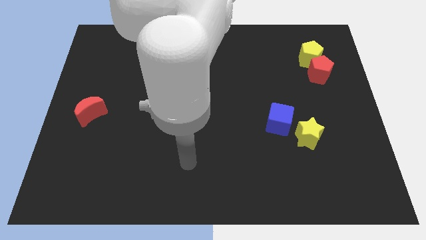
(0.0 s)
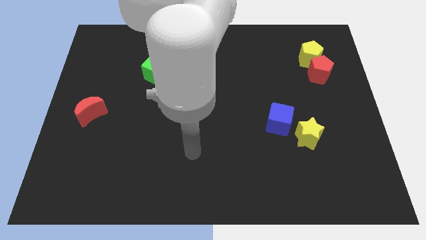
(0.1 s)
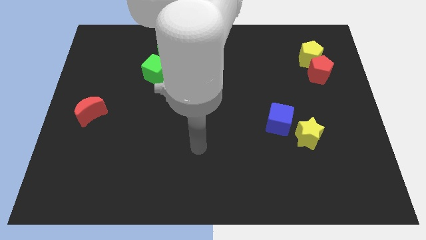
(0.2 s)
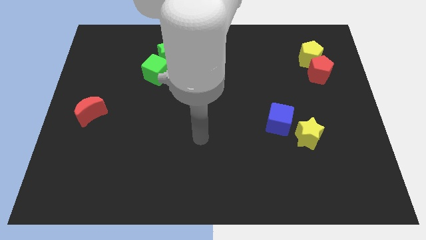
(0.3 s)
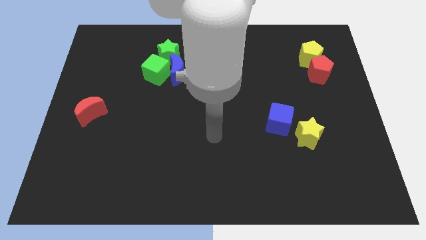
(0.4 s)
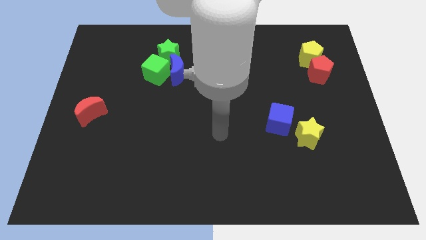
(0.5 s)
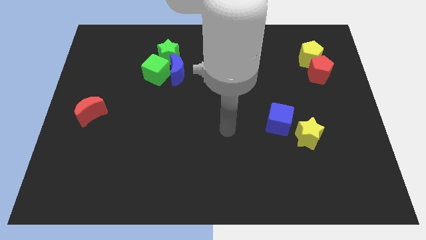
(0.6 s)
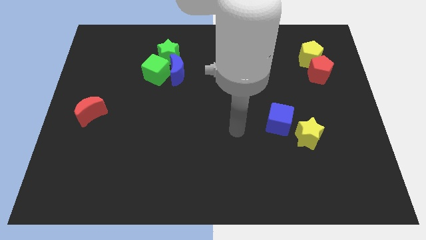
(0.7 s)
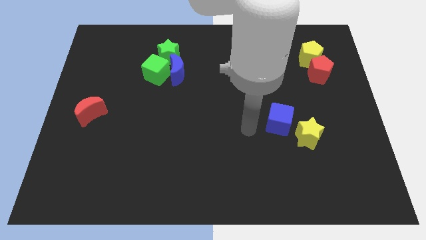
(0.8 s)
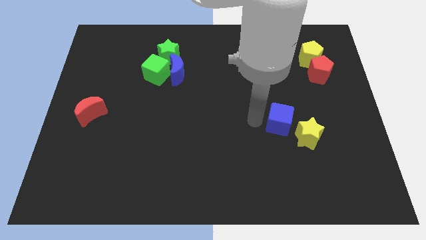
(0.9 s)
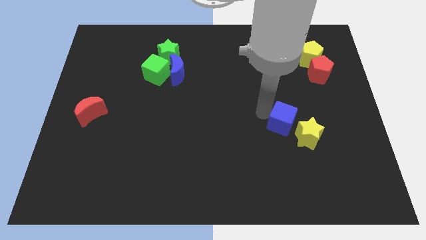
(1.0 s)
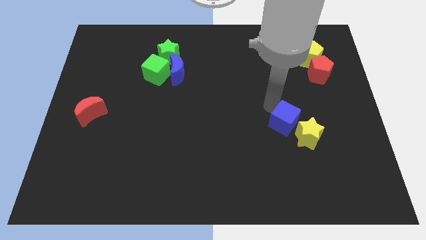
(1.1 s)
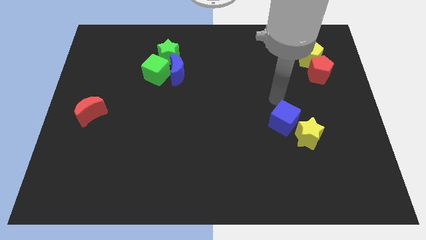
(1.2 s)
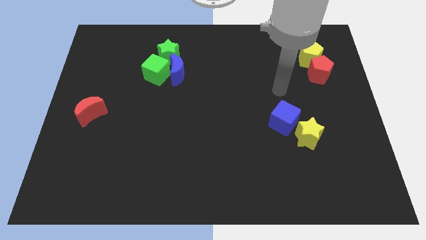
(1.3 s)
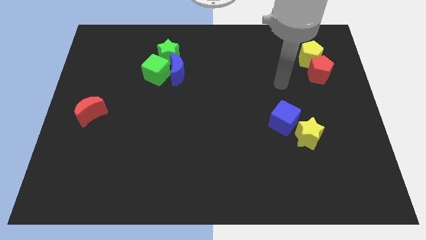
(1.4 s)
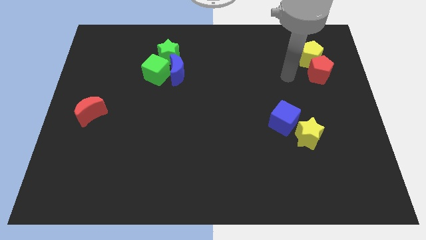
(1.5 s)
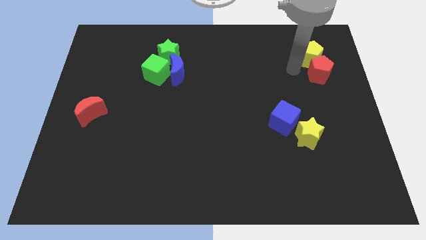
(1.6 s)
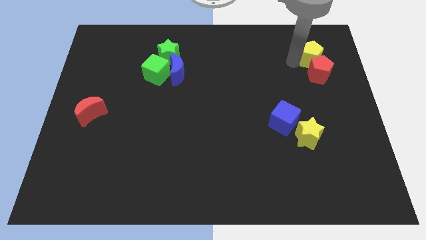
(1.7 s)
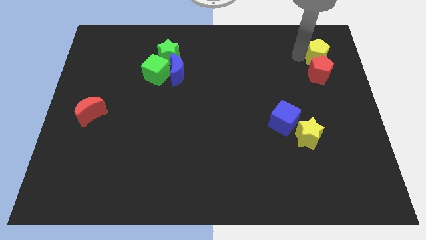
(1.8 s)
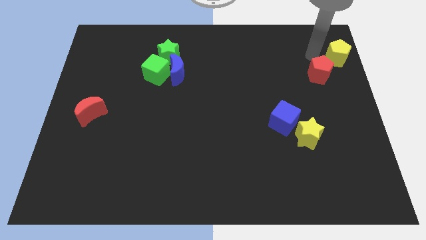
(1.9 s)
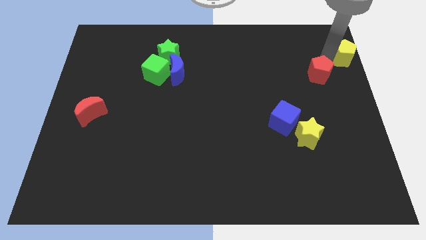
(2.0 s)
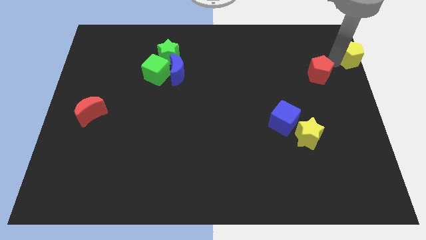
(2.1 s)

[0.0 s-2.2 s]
move the red pentagon away from the yellow pentagon

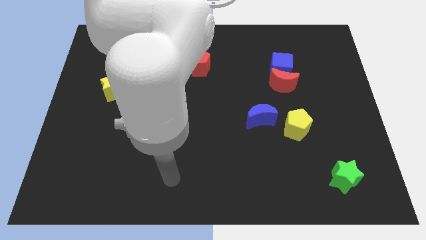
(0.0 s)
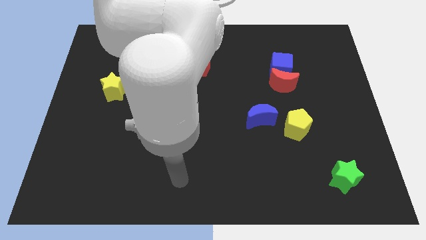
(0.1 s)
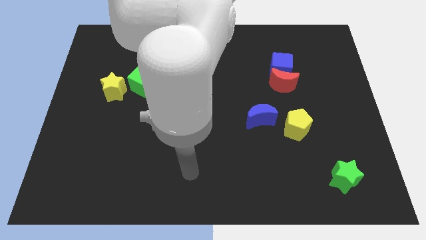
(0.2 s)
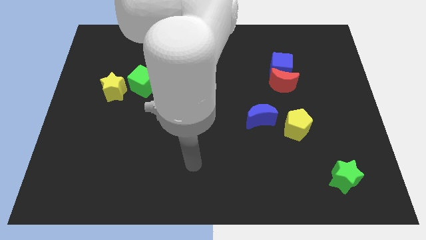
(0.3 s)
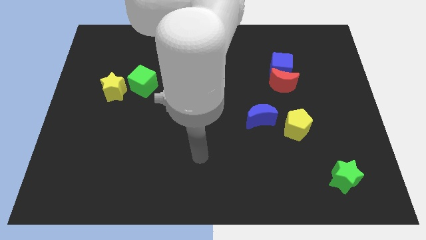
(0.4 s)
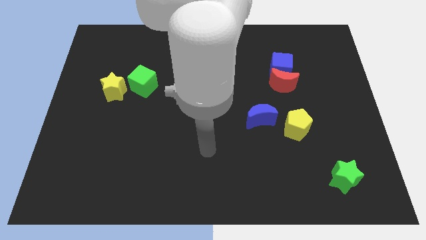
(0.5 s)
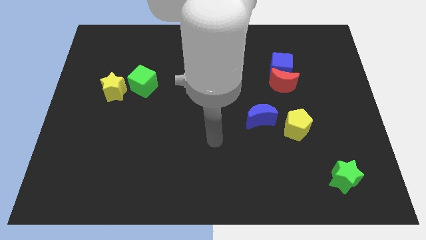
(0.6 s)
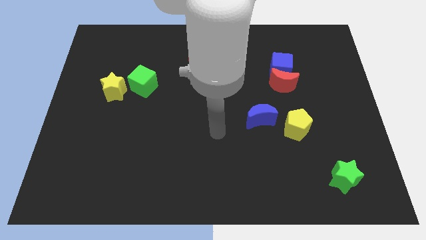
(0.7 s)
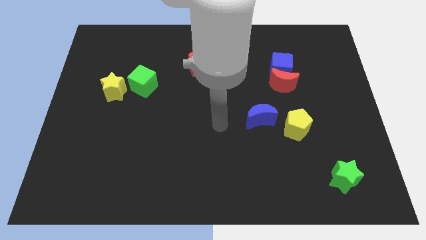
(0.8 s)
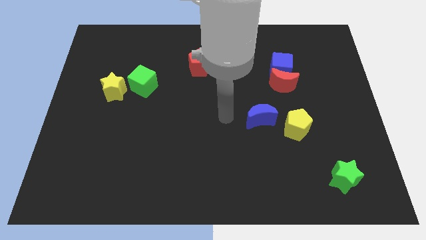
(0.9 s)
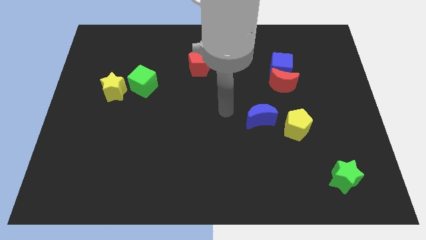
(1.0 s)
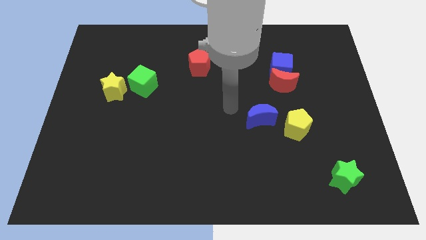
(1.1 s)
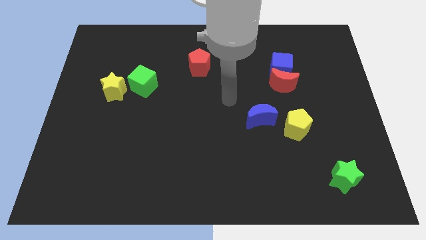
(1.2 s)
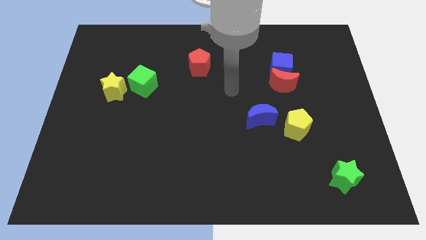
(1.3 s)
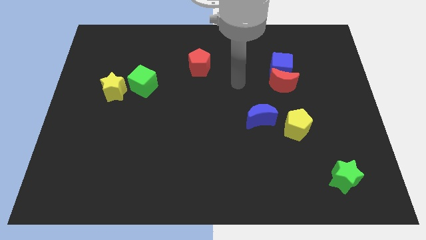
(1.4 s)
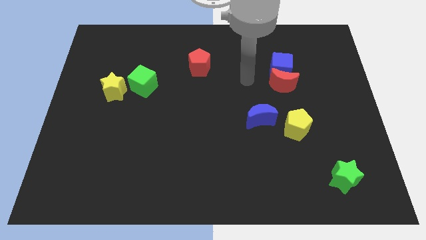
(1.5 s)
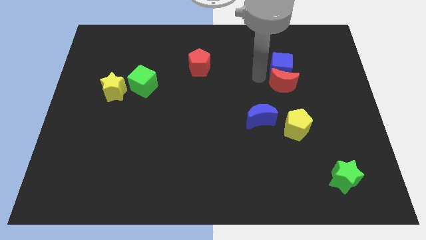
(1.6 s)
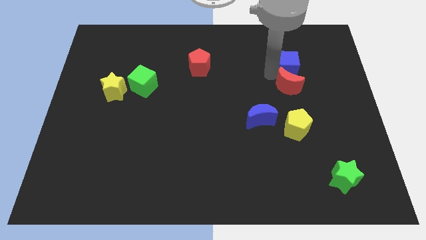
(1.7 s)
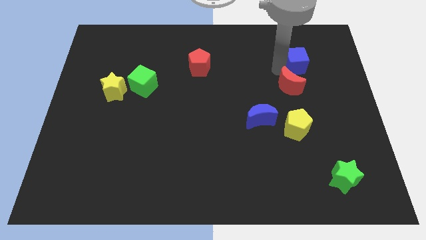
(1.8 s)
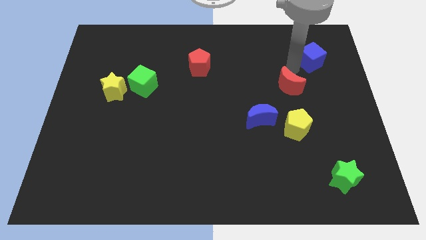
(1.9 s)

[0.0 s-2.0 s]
pull the red moon apart from the blue cube

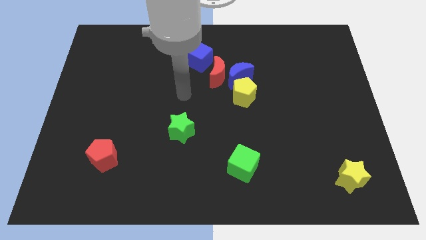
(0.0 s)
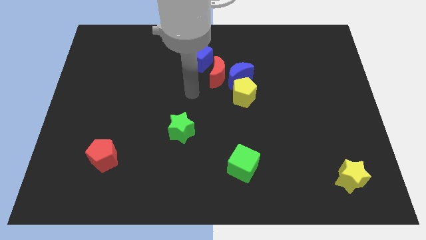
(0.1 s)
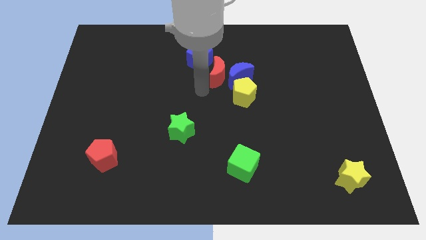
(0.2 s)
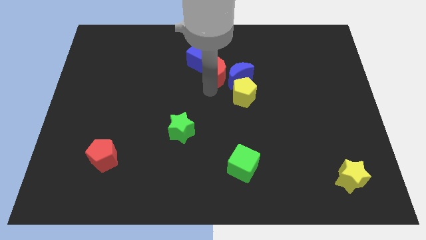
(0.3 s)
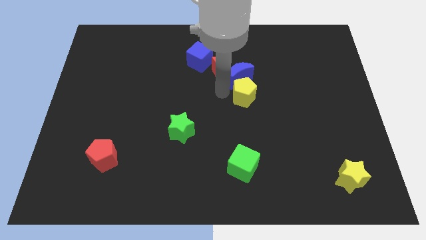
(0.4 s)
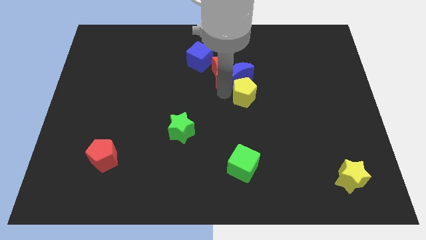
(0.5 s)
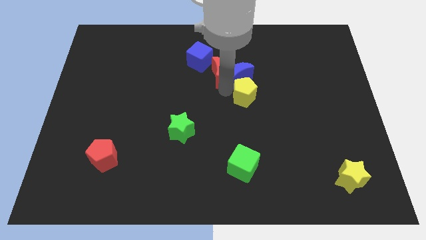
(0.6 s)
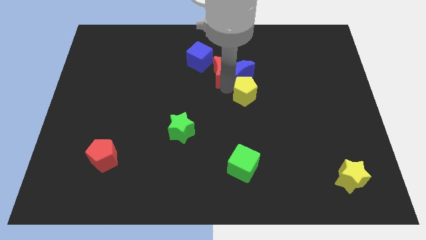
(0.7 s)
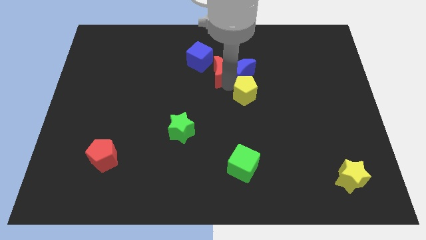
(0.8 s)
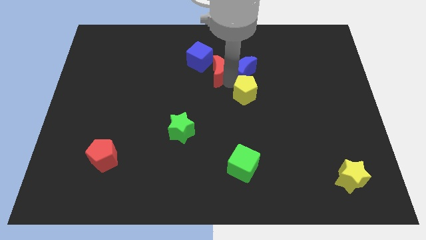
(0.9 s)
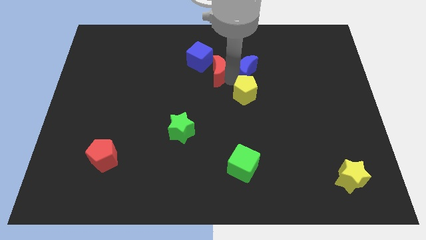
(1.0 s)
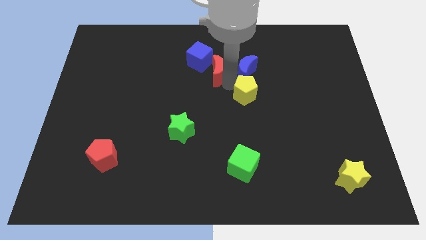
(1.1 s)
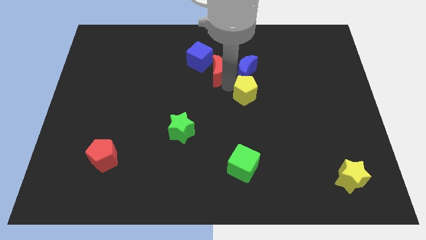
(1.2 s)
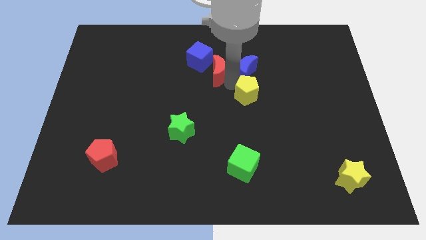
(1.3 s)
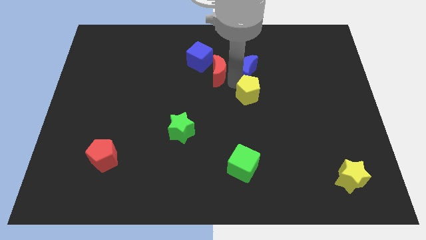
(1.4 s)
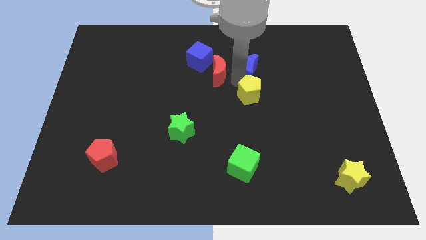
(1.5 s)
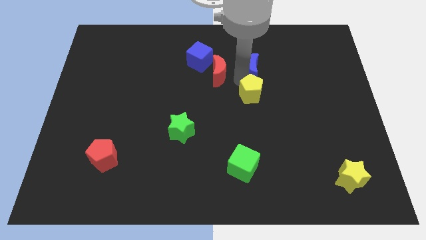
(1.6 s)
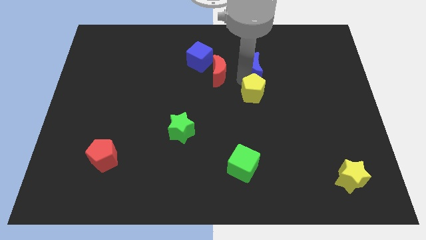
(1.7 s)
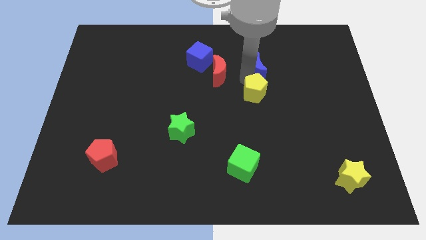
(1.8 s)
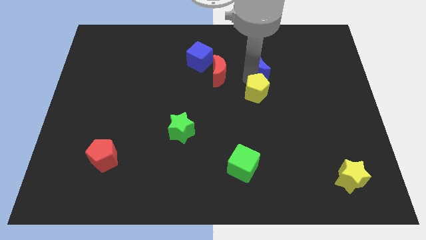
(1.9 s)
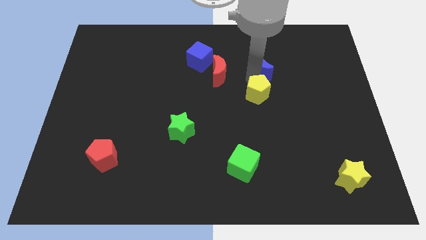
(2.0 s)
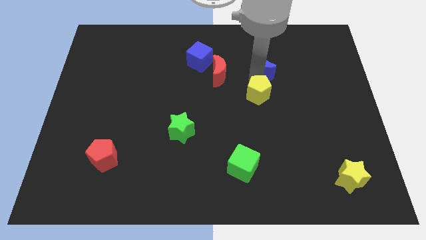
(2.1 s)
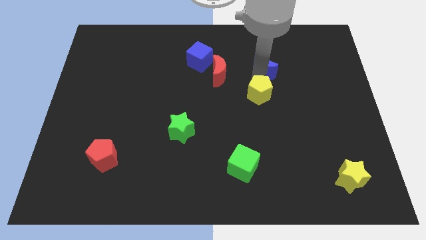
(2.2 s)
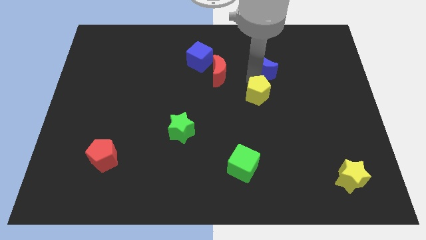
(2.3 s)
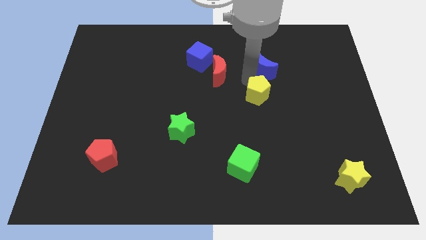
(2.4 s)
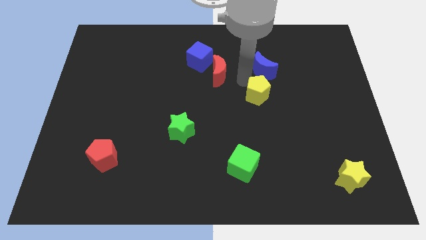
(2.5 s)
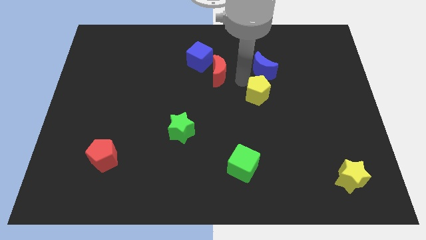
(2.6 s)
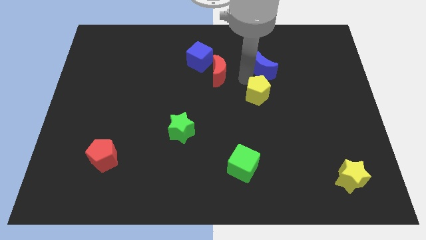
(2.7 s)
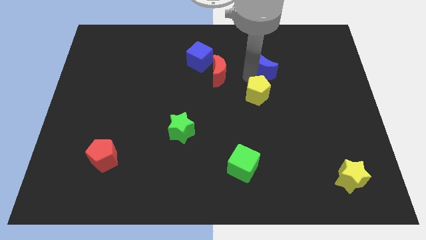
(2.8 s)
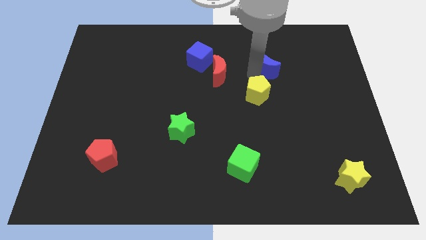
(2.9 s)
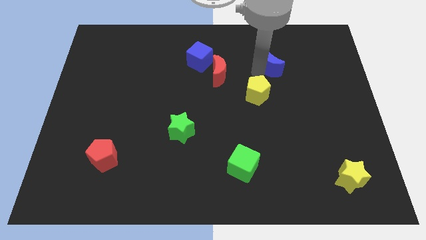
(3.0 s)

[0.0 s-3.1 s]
separate the blue moon from the red moon and yellow pentagon

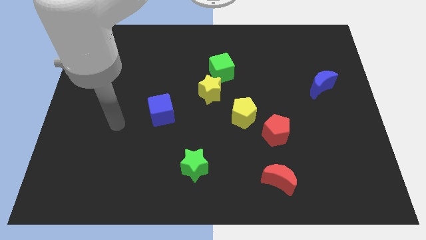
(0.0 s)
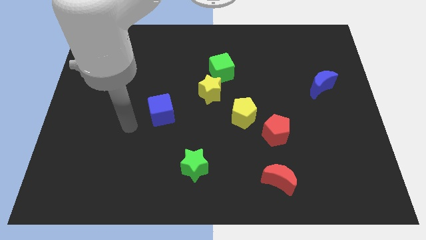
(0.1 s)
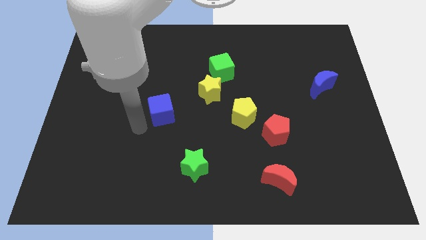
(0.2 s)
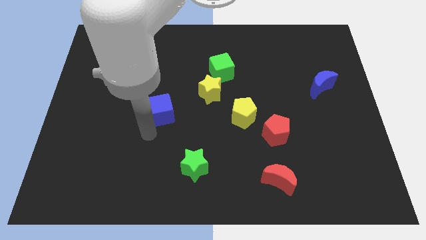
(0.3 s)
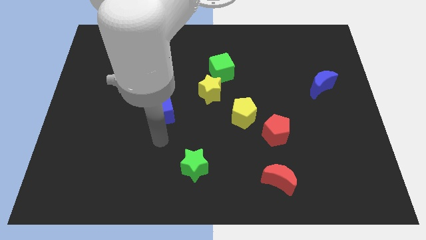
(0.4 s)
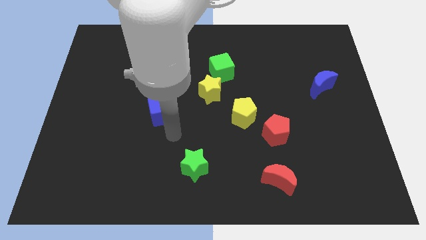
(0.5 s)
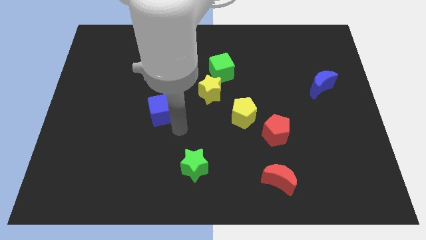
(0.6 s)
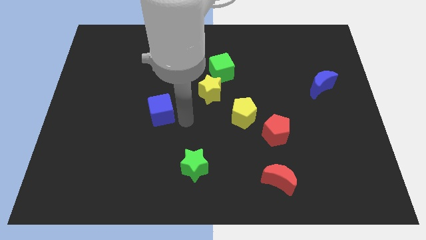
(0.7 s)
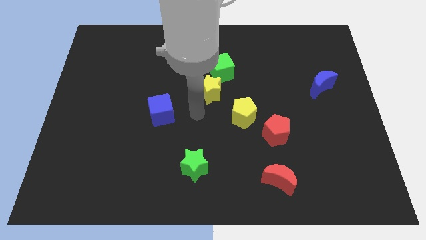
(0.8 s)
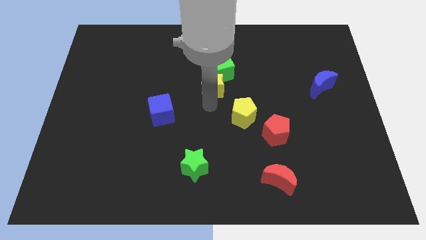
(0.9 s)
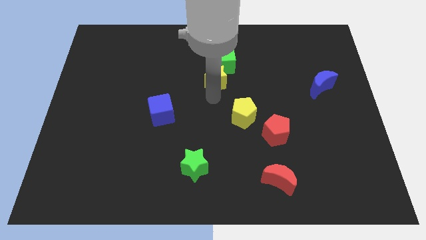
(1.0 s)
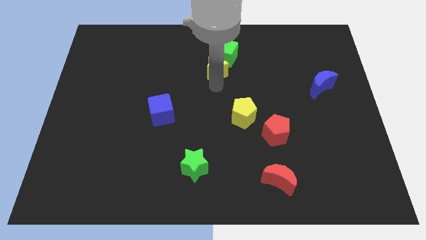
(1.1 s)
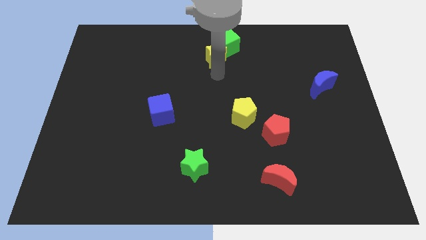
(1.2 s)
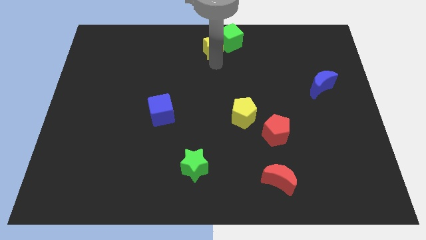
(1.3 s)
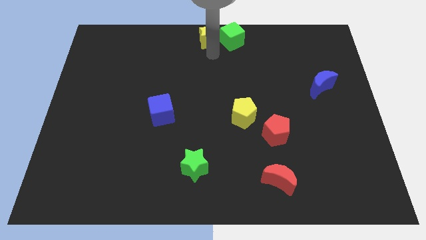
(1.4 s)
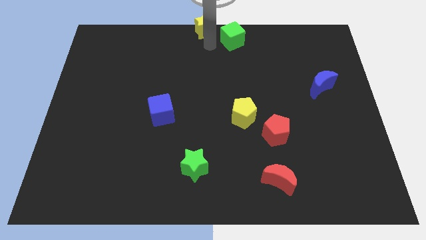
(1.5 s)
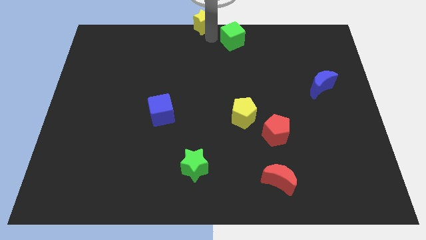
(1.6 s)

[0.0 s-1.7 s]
pull the green cube apart from the yellow star

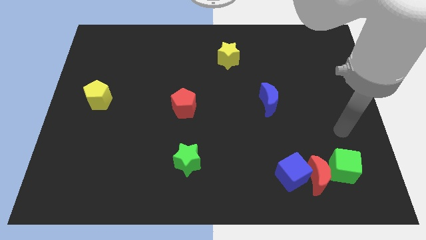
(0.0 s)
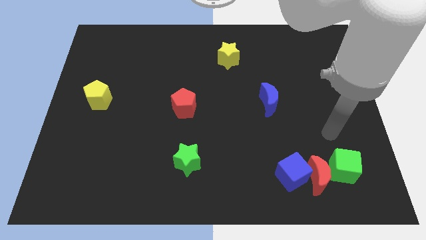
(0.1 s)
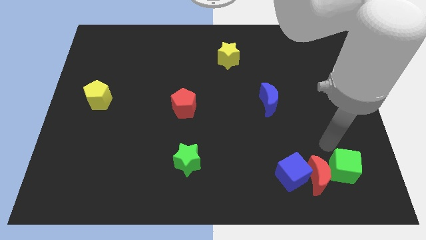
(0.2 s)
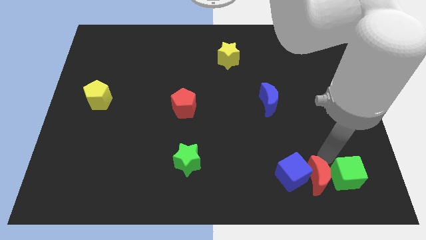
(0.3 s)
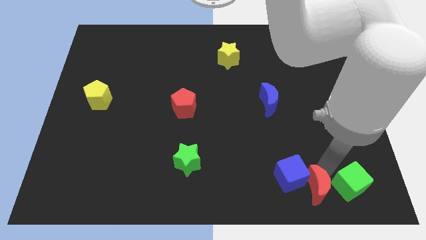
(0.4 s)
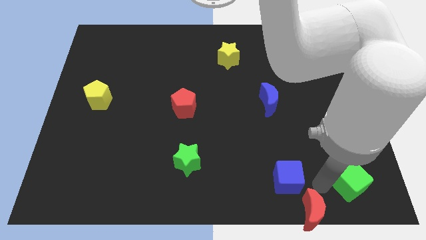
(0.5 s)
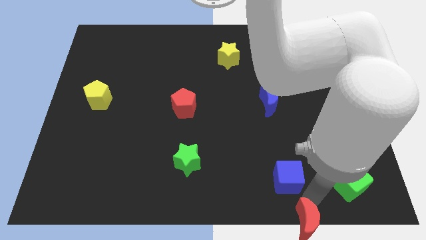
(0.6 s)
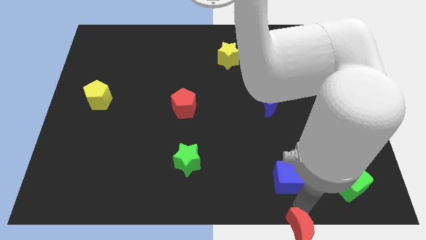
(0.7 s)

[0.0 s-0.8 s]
separate the blue cube from the red moon
